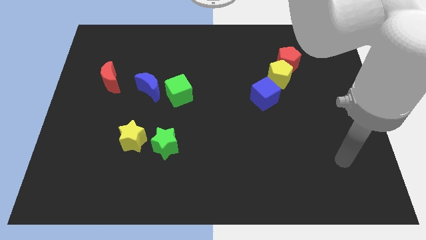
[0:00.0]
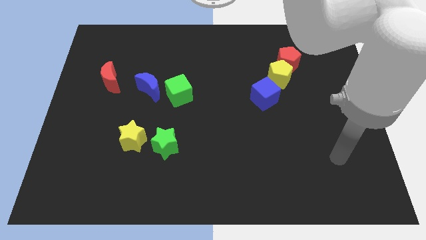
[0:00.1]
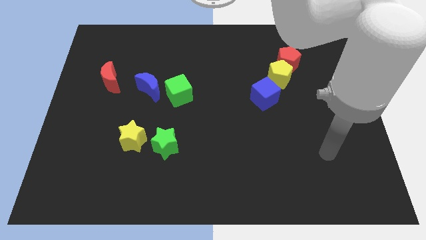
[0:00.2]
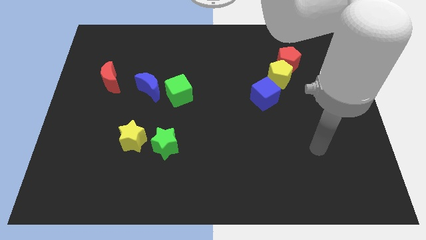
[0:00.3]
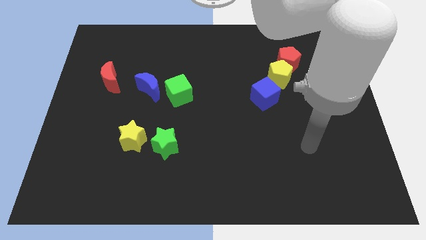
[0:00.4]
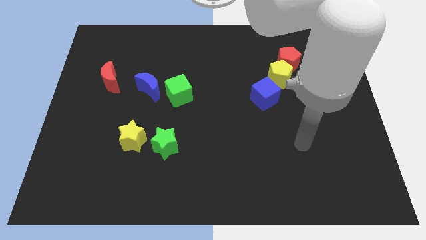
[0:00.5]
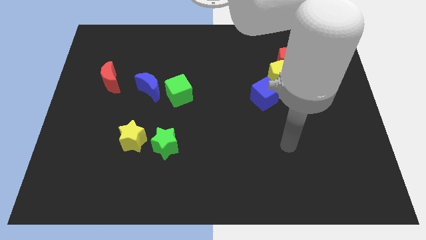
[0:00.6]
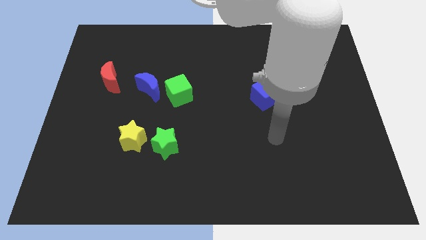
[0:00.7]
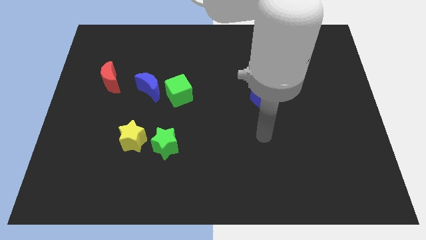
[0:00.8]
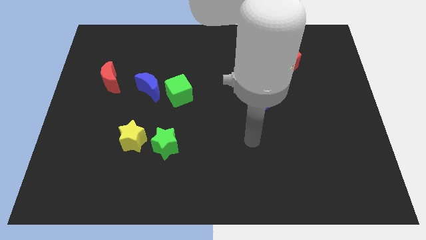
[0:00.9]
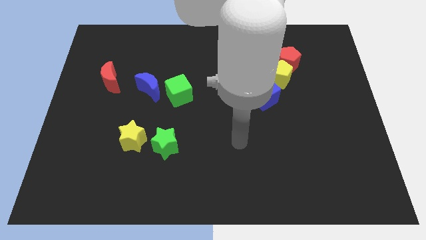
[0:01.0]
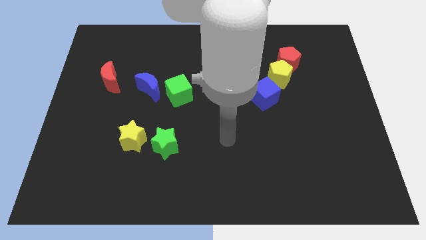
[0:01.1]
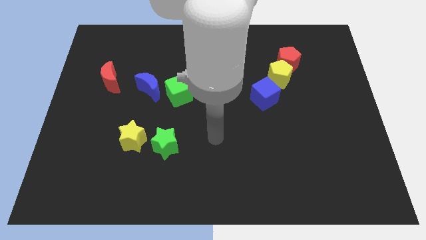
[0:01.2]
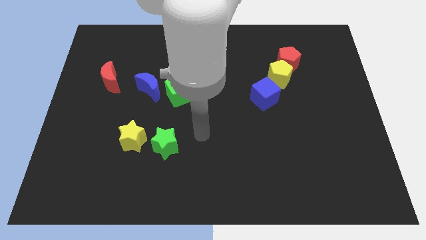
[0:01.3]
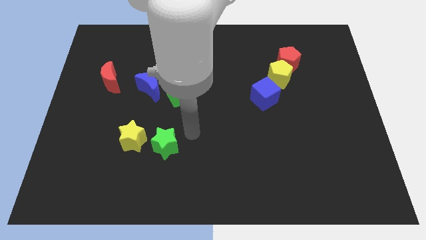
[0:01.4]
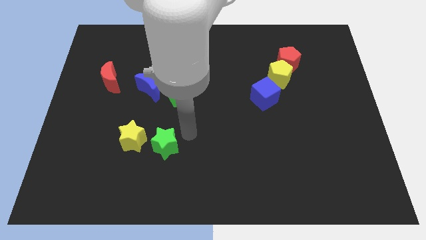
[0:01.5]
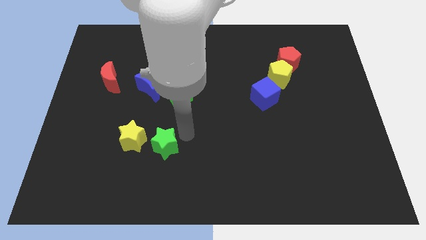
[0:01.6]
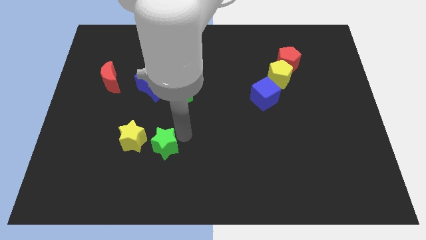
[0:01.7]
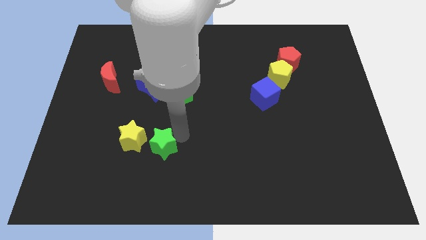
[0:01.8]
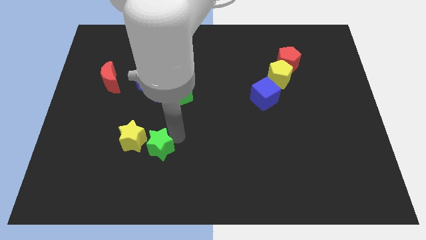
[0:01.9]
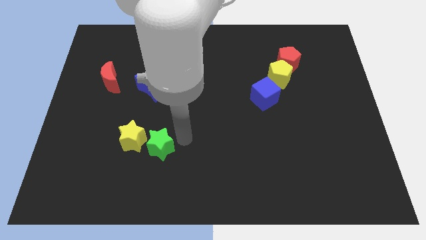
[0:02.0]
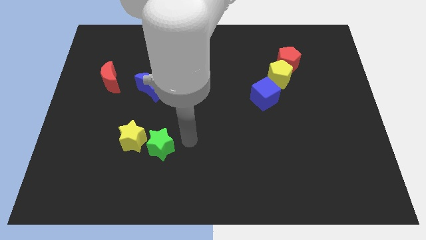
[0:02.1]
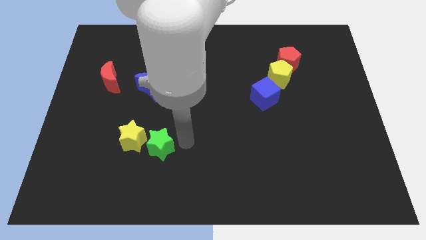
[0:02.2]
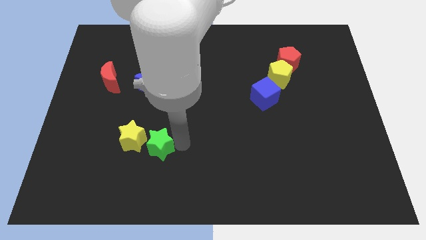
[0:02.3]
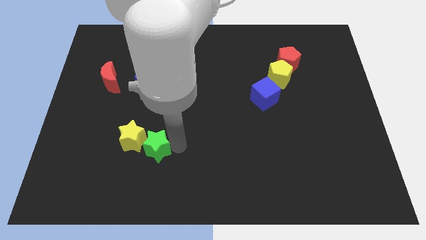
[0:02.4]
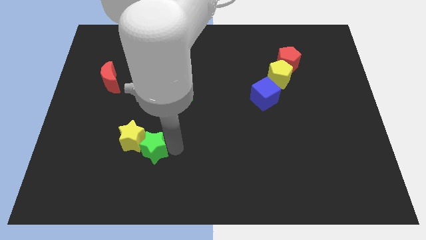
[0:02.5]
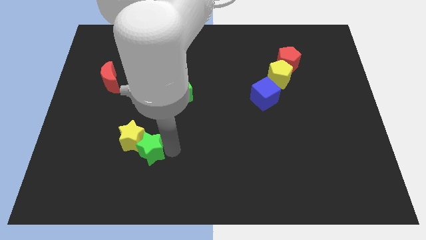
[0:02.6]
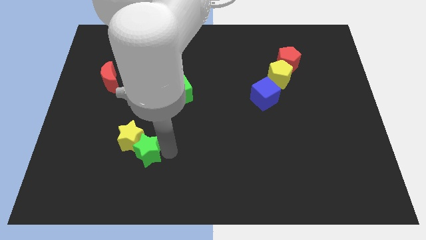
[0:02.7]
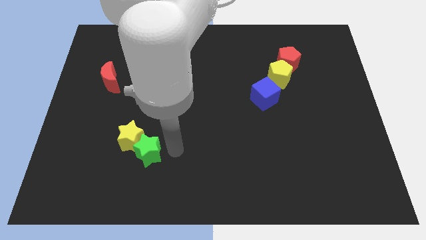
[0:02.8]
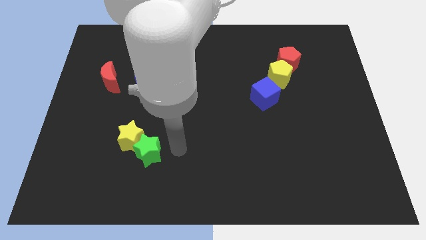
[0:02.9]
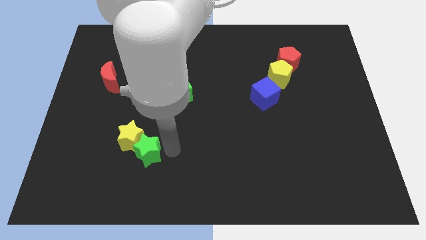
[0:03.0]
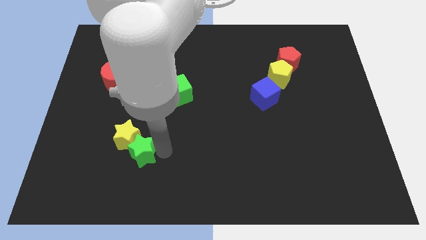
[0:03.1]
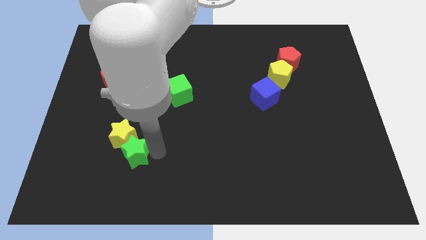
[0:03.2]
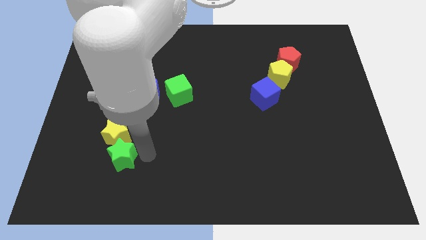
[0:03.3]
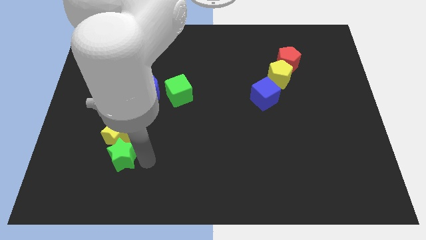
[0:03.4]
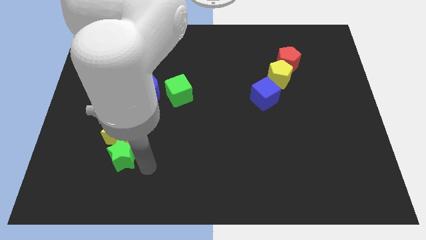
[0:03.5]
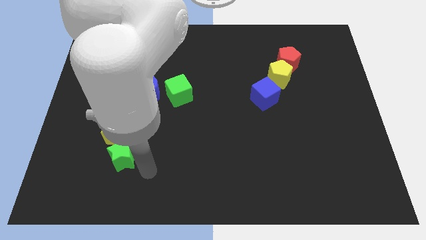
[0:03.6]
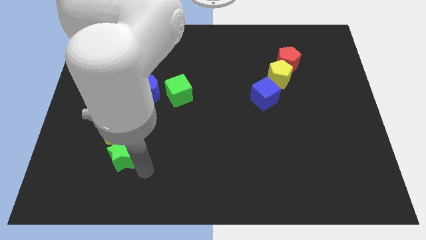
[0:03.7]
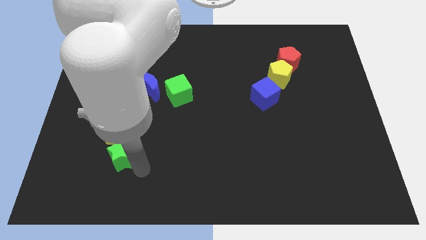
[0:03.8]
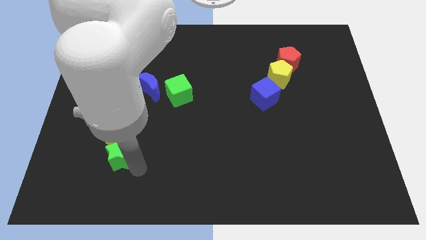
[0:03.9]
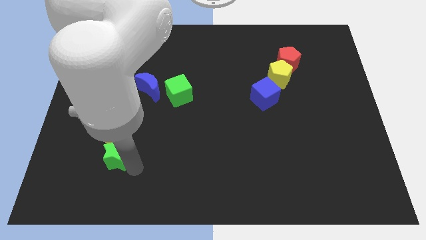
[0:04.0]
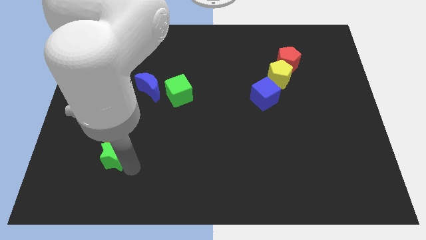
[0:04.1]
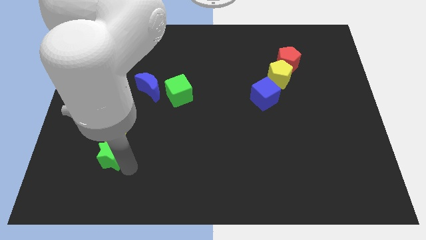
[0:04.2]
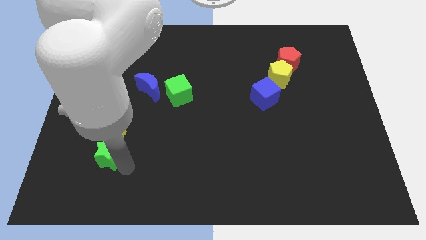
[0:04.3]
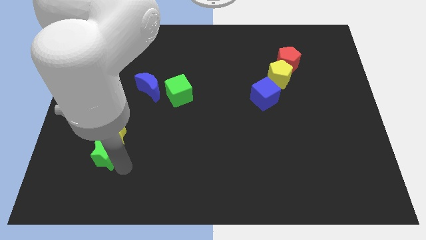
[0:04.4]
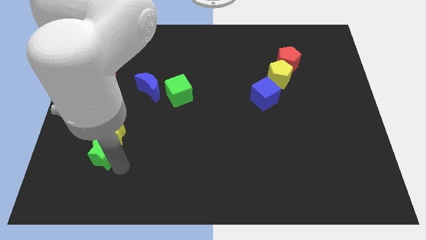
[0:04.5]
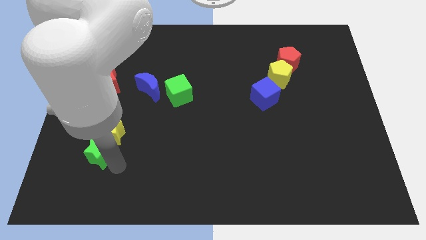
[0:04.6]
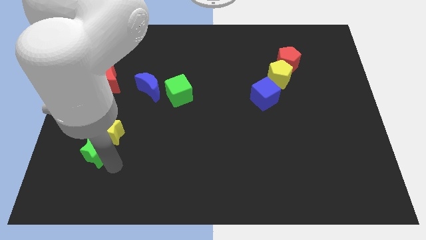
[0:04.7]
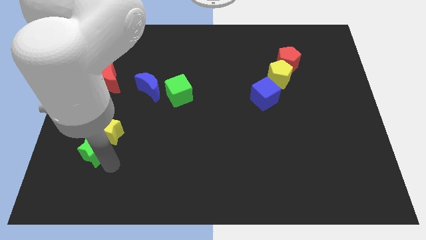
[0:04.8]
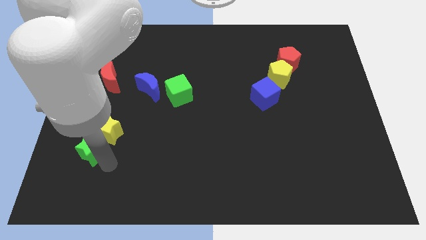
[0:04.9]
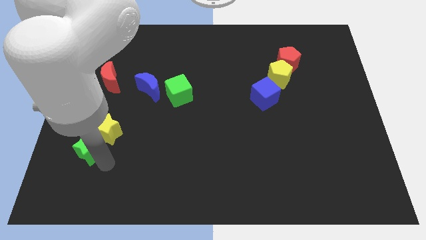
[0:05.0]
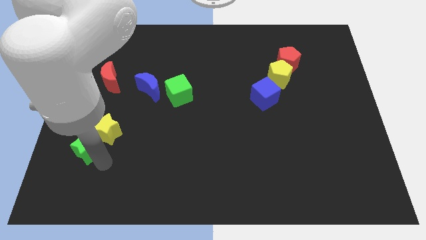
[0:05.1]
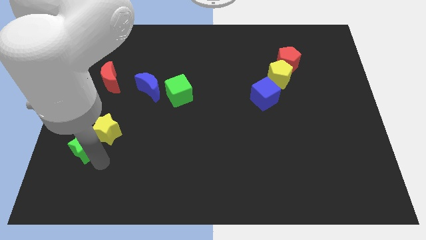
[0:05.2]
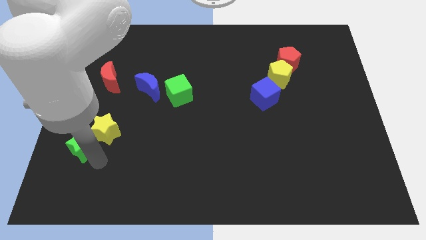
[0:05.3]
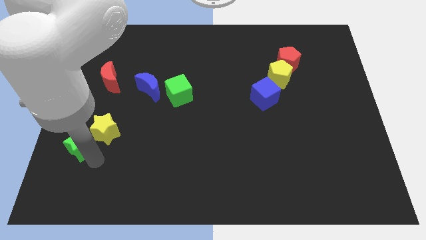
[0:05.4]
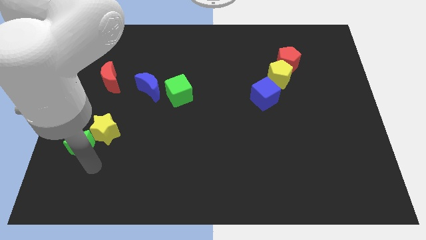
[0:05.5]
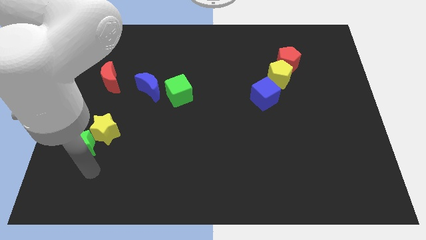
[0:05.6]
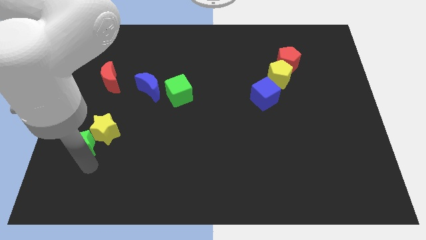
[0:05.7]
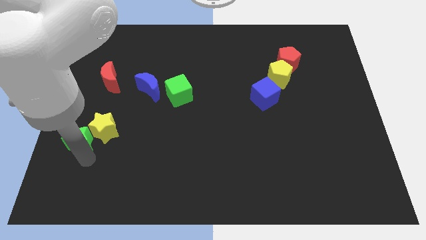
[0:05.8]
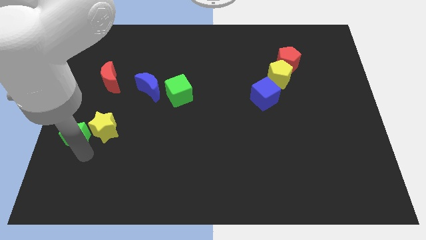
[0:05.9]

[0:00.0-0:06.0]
put the green star to the left side of the board

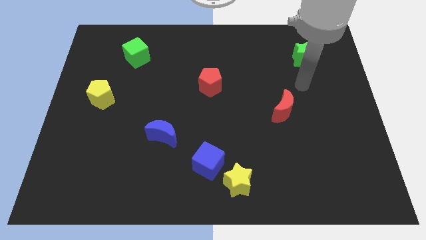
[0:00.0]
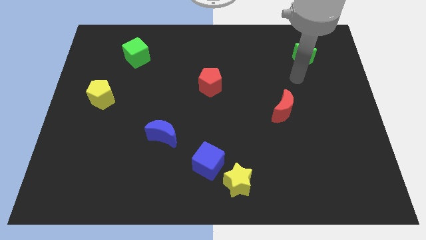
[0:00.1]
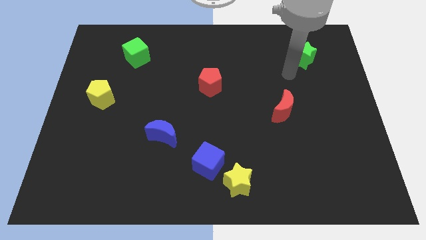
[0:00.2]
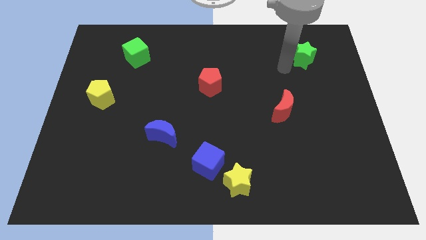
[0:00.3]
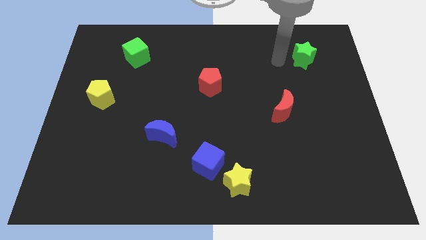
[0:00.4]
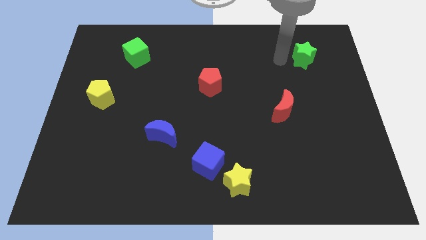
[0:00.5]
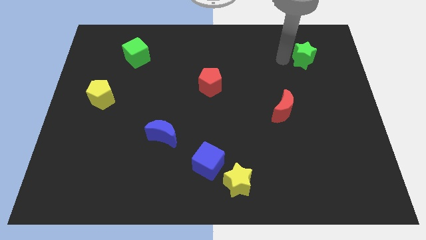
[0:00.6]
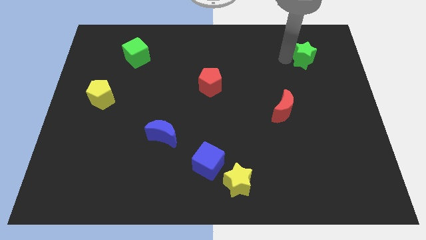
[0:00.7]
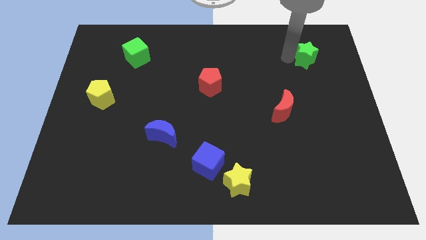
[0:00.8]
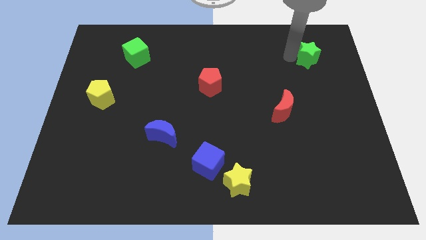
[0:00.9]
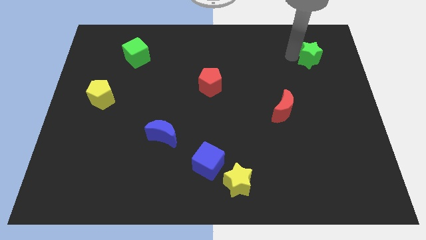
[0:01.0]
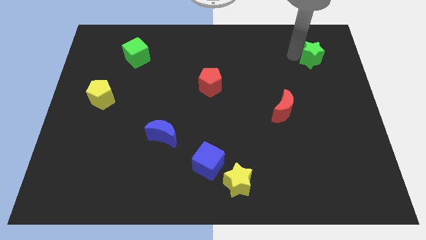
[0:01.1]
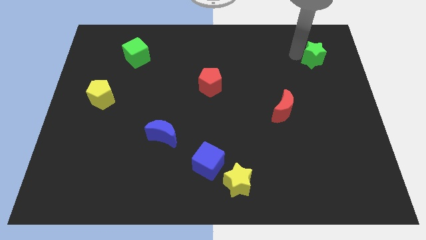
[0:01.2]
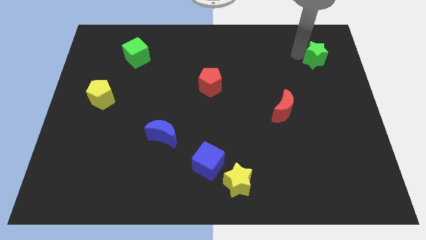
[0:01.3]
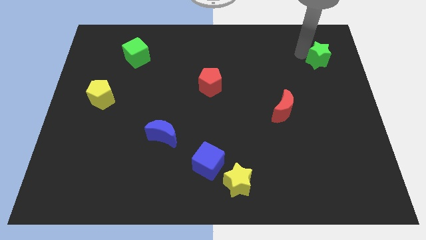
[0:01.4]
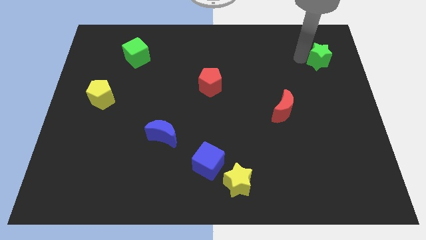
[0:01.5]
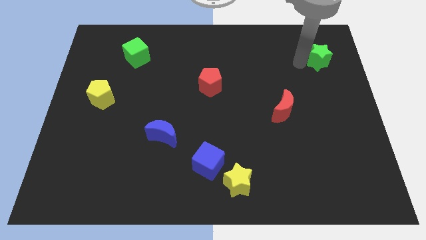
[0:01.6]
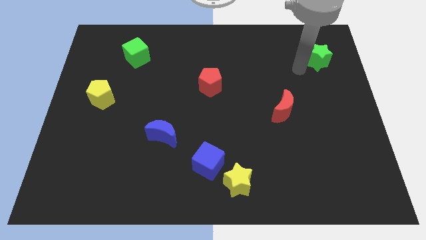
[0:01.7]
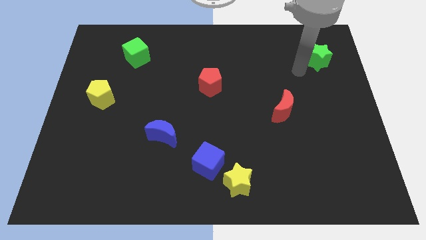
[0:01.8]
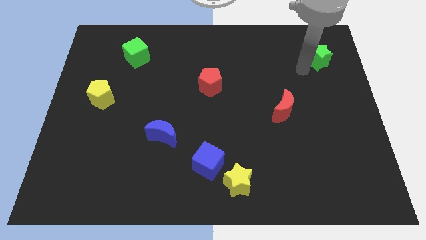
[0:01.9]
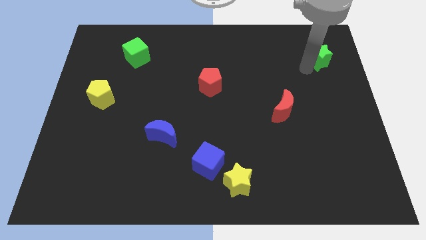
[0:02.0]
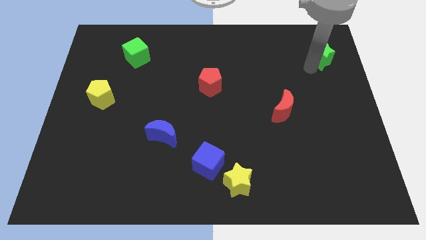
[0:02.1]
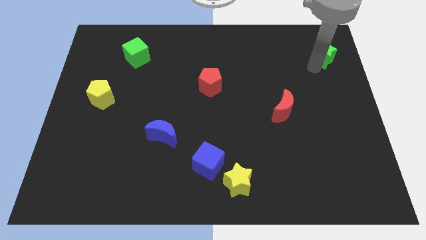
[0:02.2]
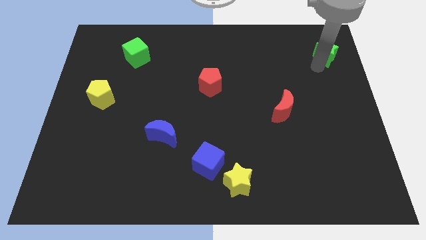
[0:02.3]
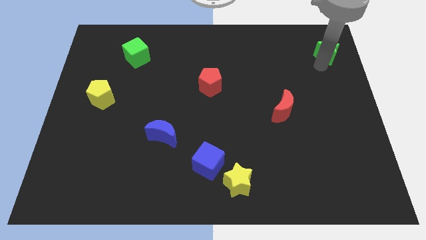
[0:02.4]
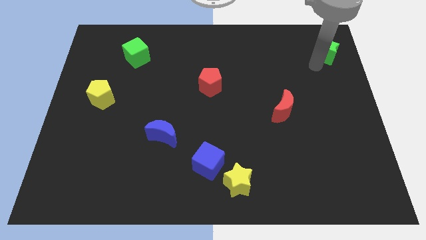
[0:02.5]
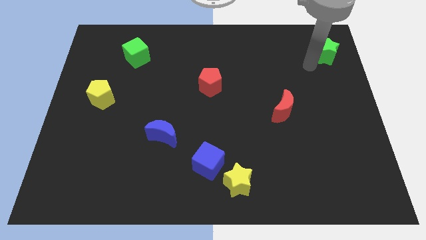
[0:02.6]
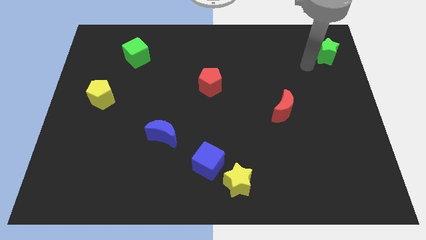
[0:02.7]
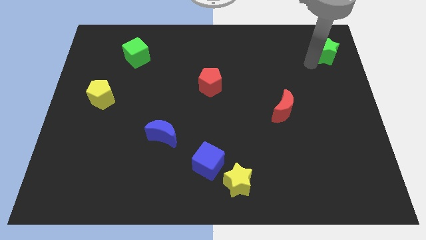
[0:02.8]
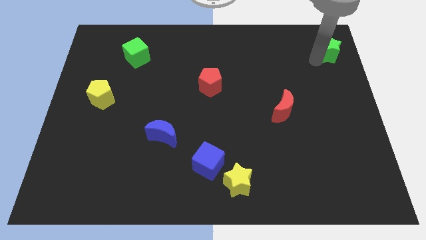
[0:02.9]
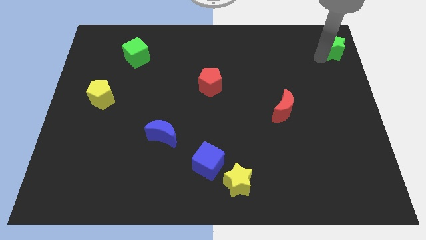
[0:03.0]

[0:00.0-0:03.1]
put the green star to the top right
